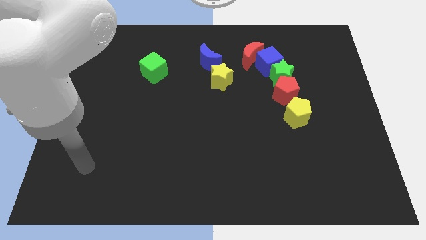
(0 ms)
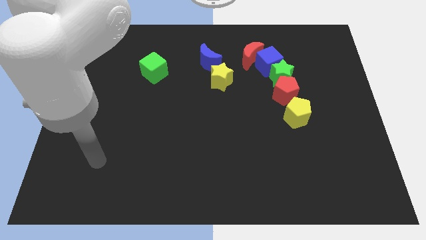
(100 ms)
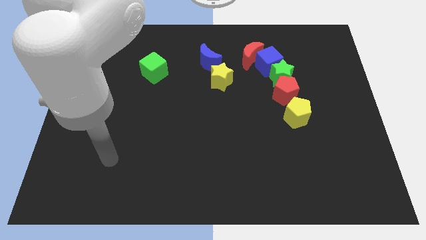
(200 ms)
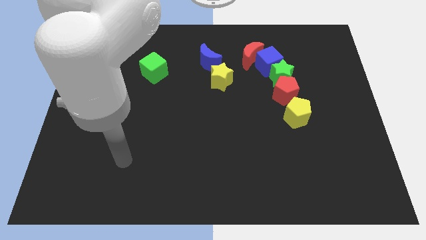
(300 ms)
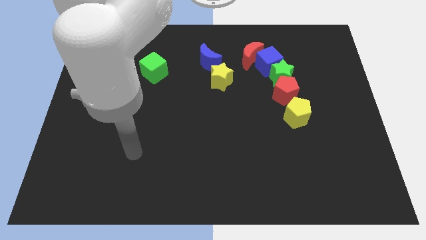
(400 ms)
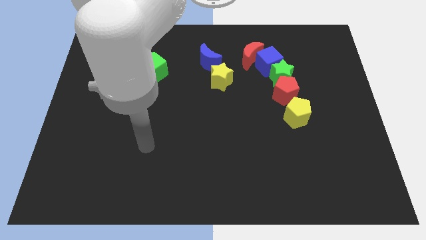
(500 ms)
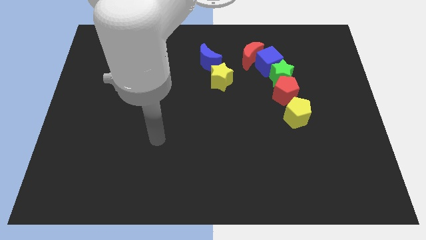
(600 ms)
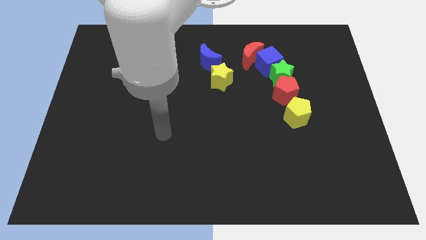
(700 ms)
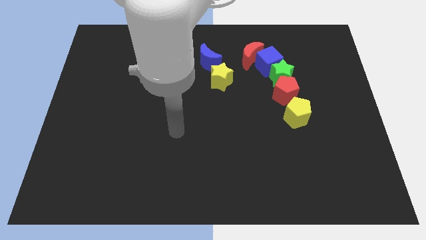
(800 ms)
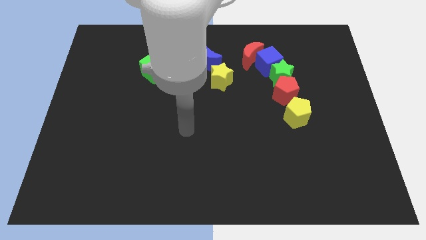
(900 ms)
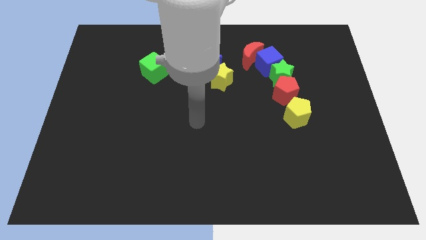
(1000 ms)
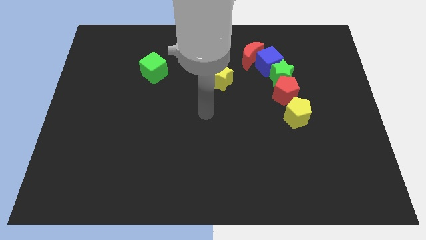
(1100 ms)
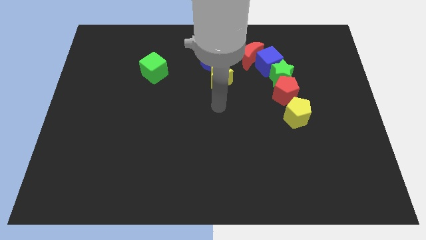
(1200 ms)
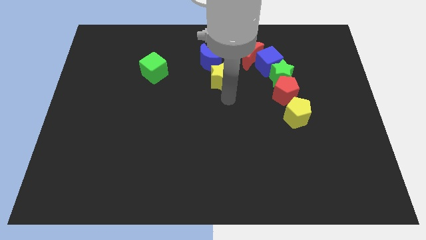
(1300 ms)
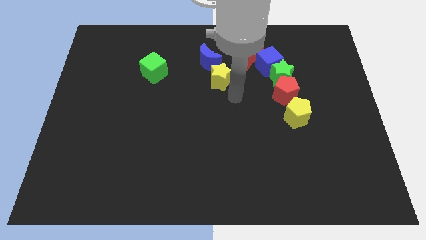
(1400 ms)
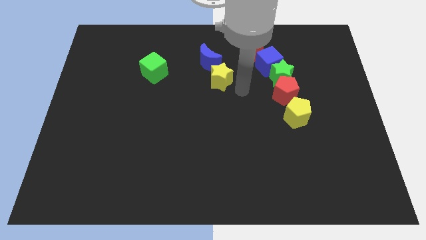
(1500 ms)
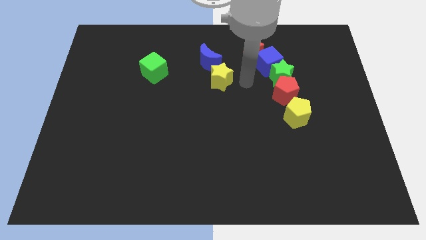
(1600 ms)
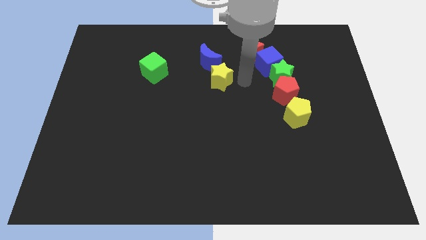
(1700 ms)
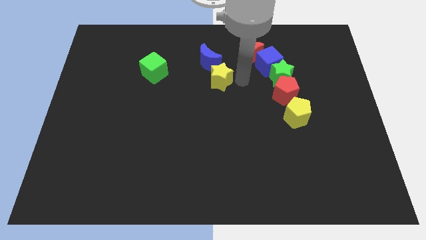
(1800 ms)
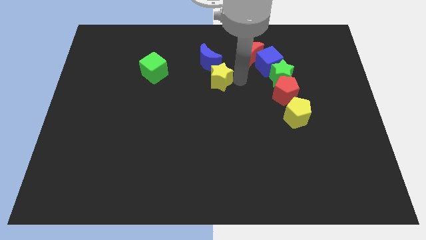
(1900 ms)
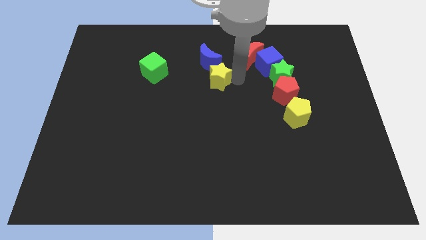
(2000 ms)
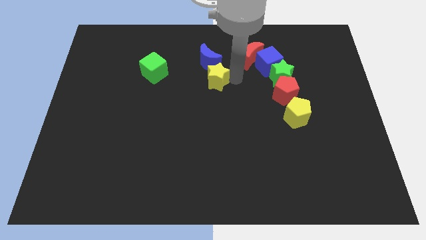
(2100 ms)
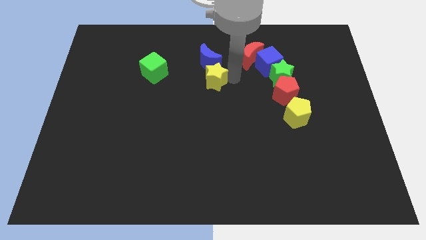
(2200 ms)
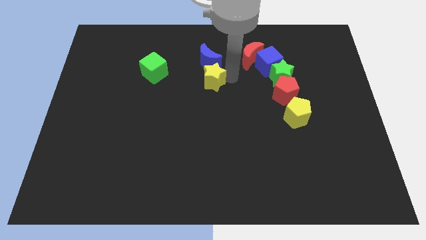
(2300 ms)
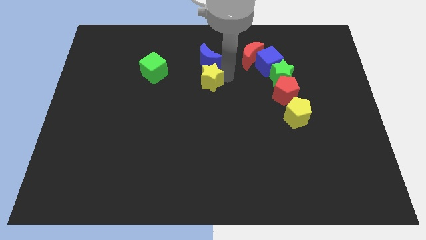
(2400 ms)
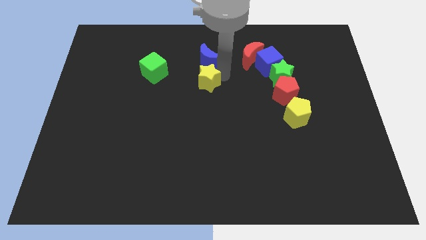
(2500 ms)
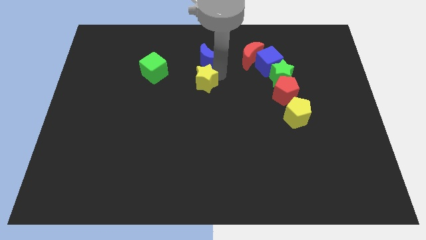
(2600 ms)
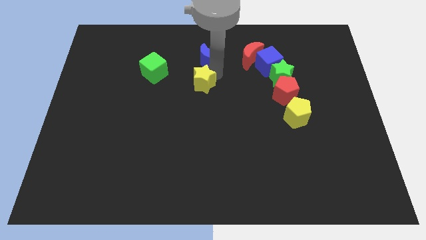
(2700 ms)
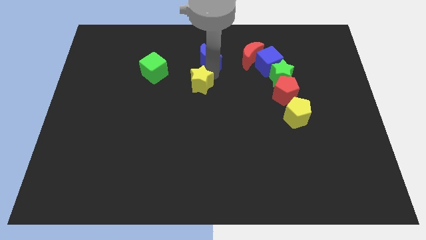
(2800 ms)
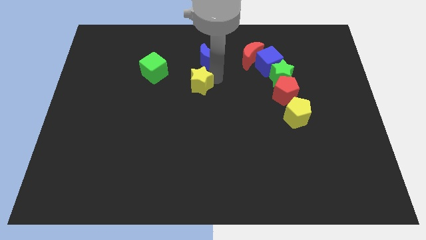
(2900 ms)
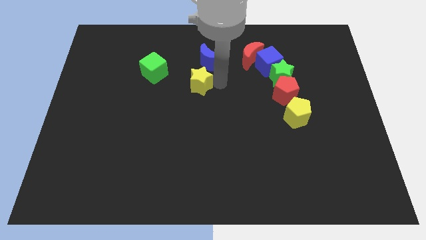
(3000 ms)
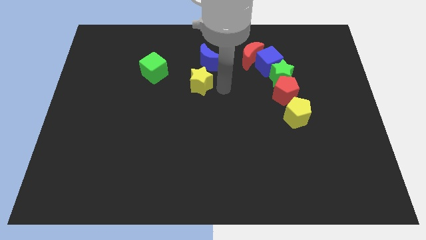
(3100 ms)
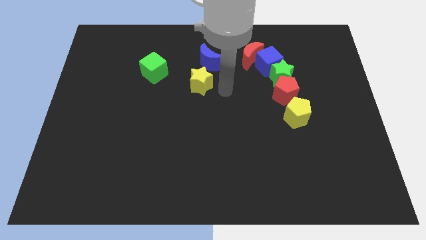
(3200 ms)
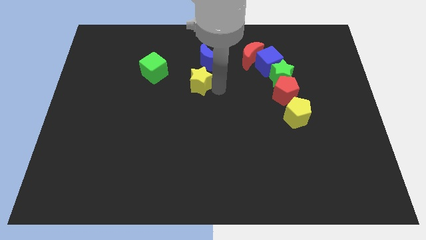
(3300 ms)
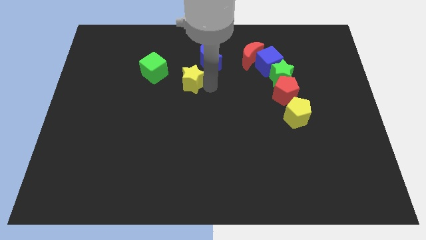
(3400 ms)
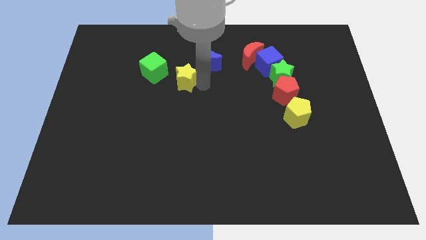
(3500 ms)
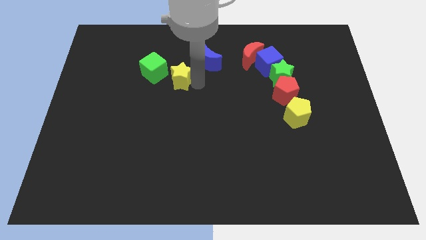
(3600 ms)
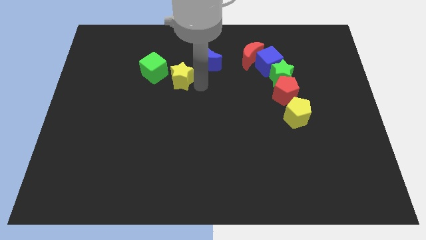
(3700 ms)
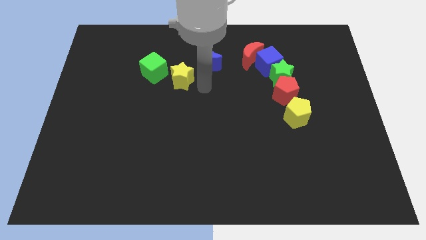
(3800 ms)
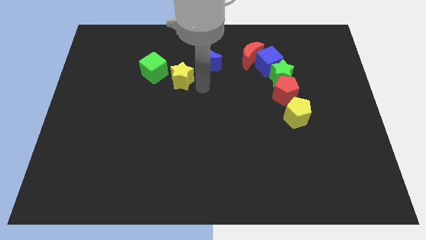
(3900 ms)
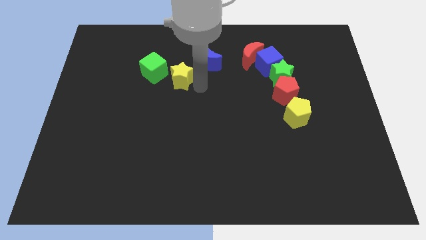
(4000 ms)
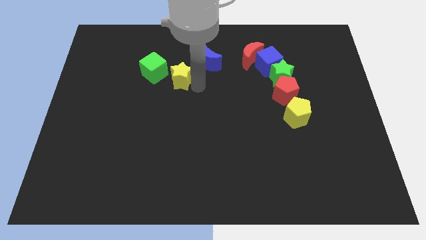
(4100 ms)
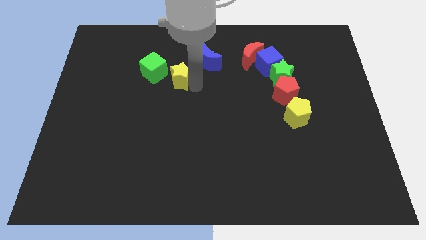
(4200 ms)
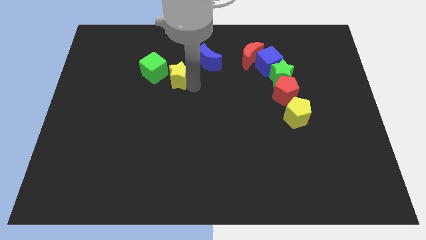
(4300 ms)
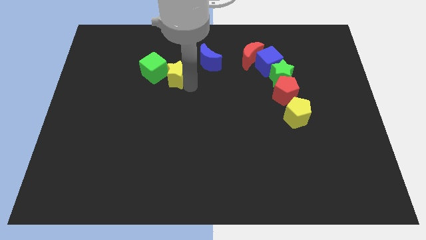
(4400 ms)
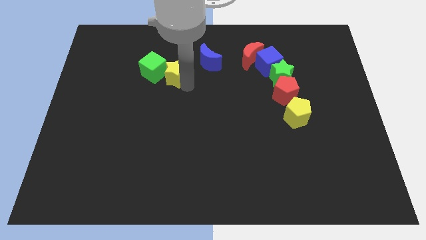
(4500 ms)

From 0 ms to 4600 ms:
slide the yellow star next to the green cube

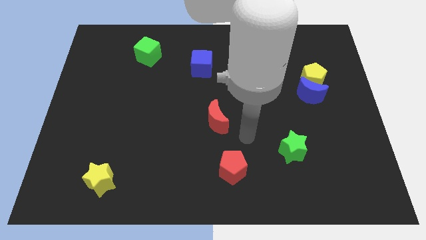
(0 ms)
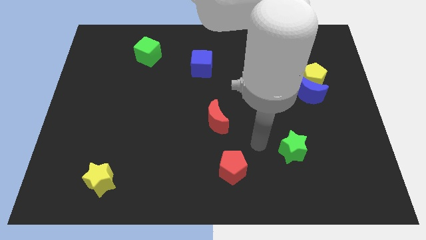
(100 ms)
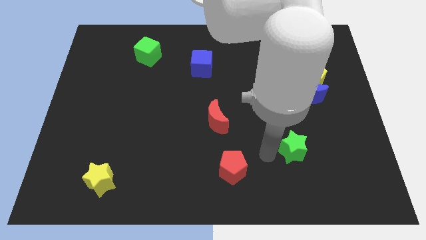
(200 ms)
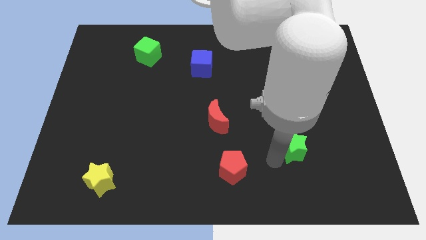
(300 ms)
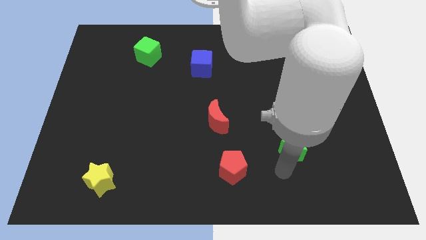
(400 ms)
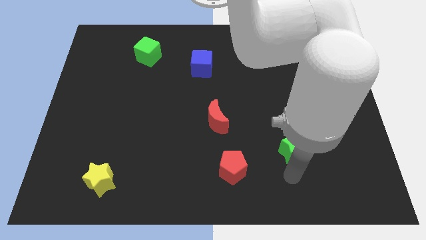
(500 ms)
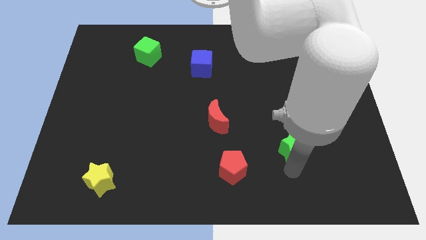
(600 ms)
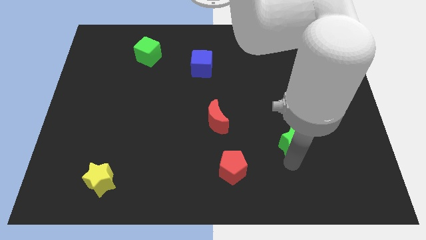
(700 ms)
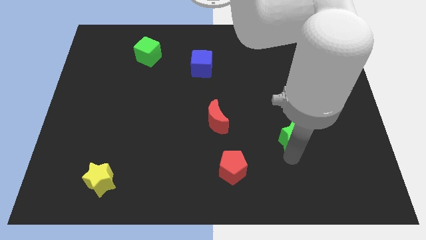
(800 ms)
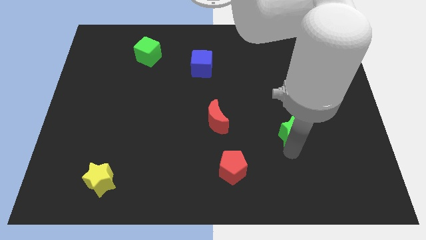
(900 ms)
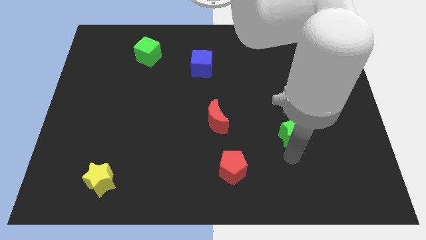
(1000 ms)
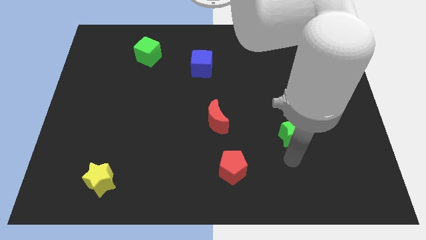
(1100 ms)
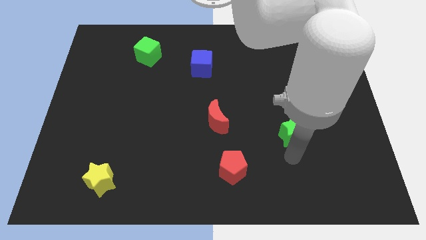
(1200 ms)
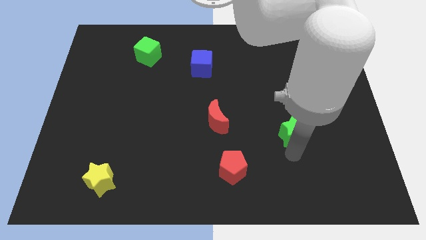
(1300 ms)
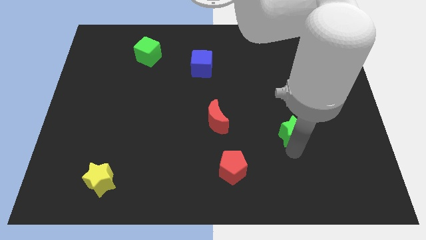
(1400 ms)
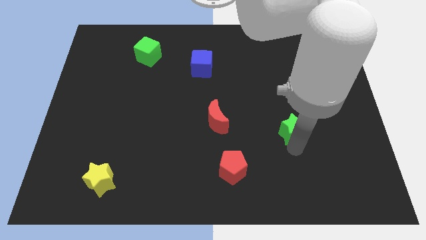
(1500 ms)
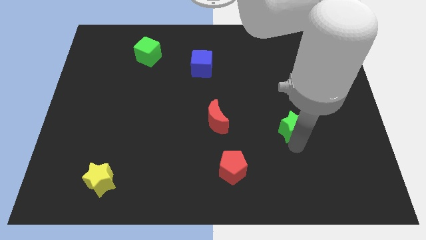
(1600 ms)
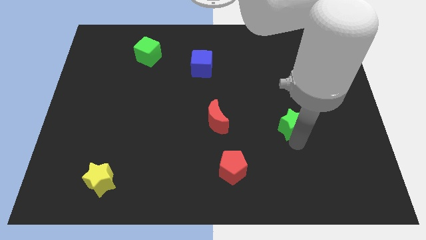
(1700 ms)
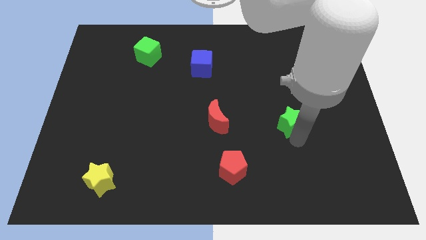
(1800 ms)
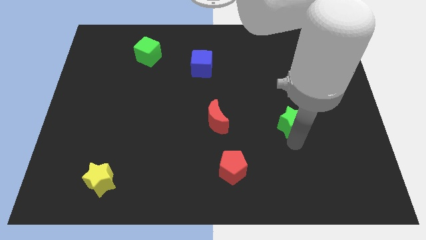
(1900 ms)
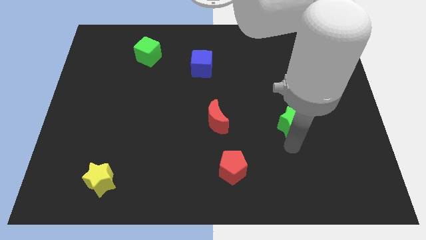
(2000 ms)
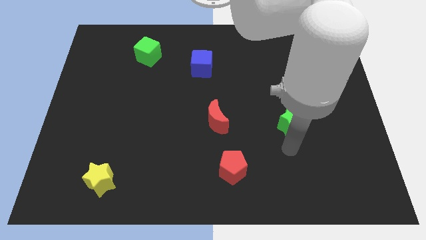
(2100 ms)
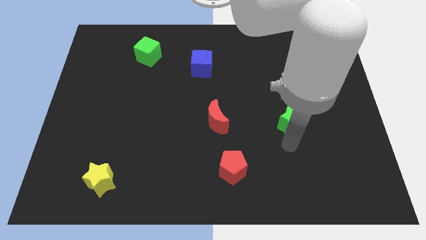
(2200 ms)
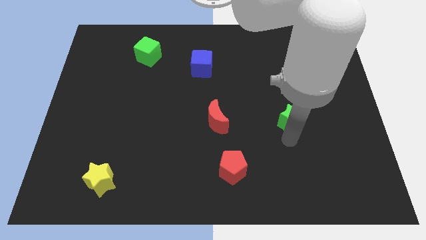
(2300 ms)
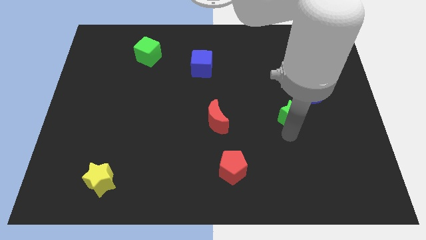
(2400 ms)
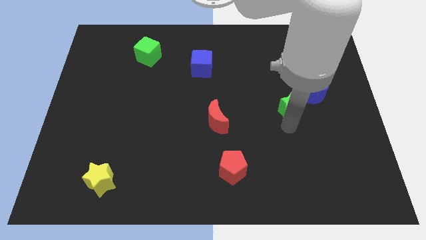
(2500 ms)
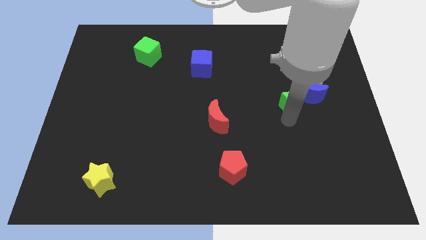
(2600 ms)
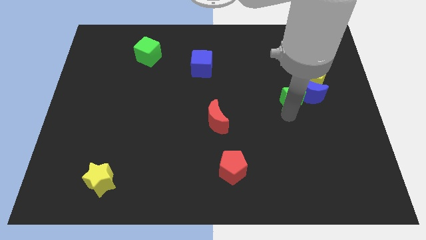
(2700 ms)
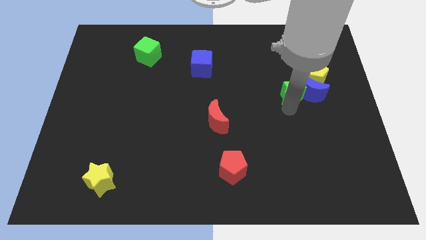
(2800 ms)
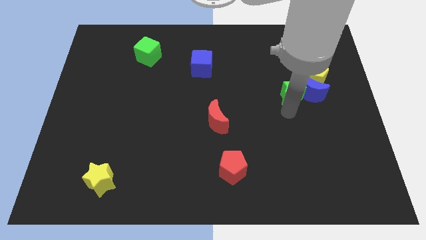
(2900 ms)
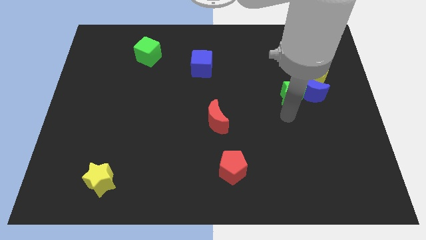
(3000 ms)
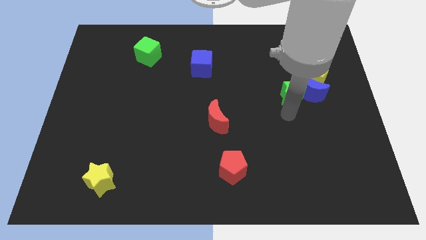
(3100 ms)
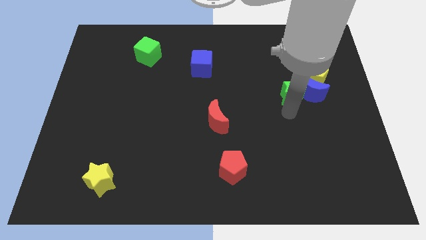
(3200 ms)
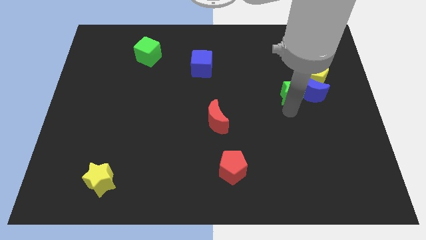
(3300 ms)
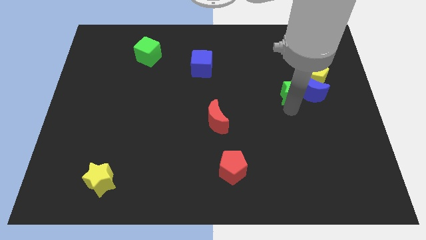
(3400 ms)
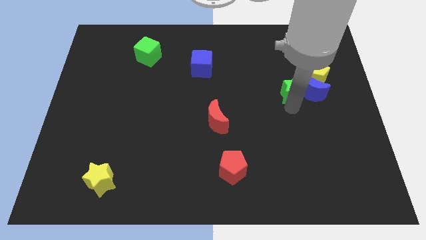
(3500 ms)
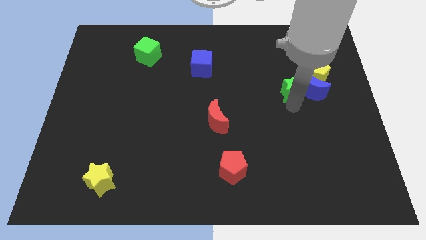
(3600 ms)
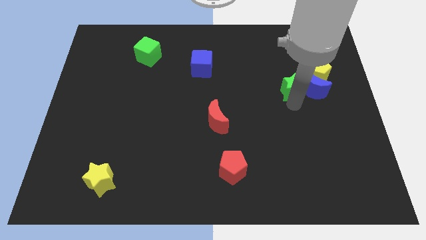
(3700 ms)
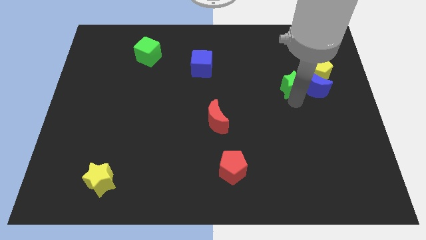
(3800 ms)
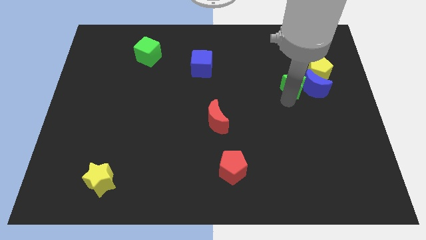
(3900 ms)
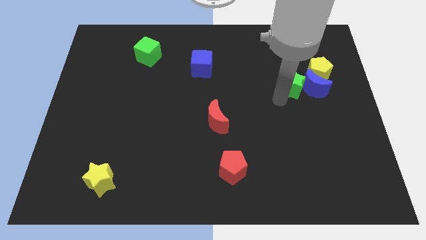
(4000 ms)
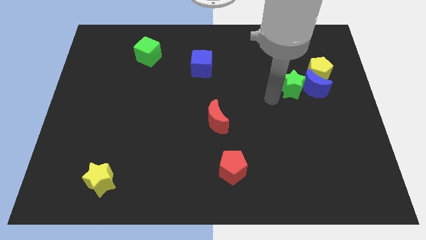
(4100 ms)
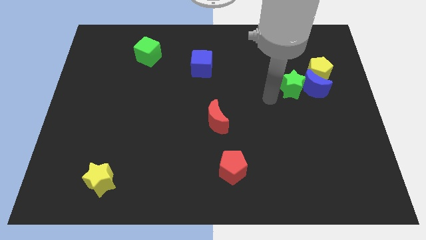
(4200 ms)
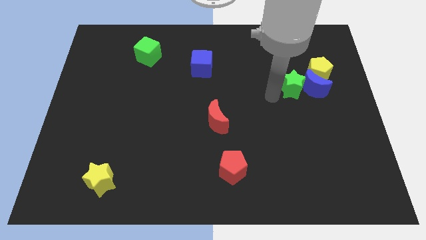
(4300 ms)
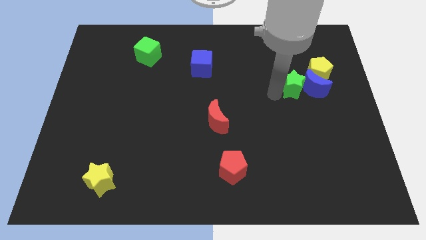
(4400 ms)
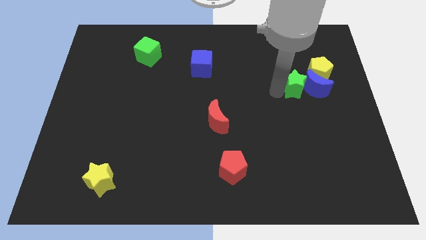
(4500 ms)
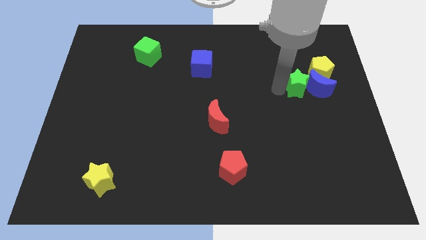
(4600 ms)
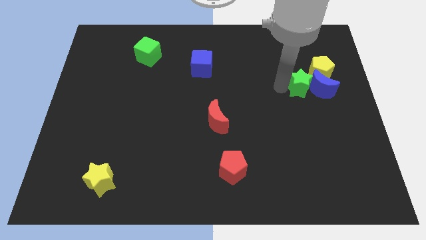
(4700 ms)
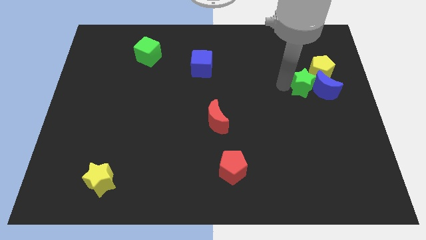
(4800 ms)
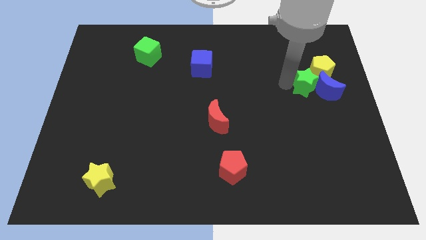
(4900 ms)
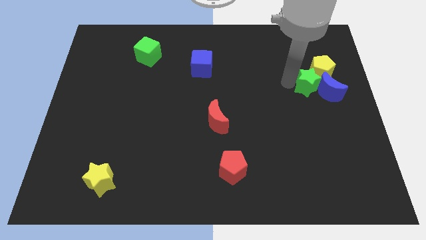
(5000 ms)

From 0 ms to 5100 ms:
push the green star towards the yellow pentagon
